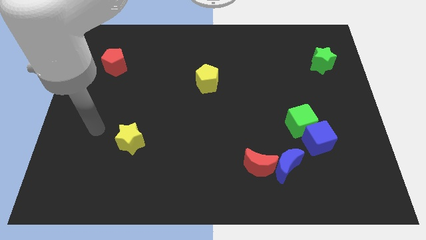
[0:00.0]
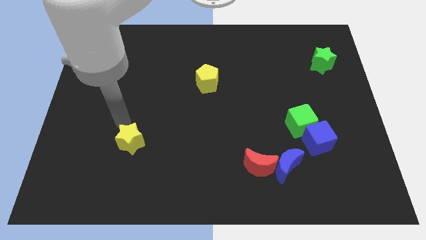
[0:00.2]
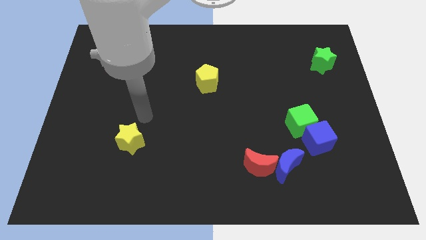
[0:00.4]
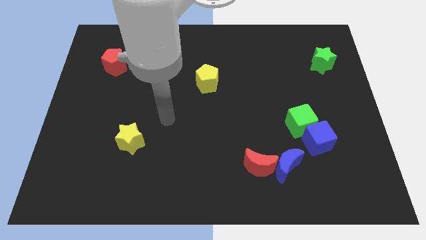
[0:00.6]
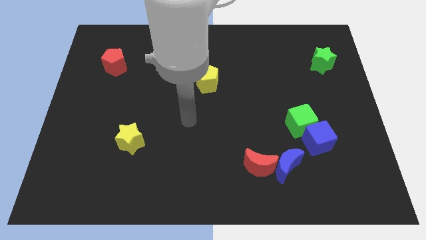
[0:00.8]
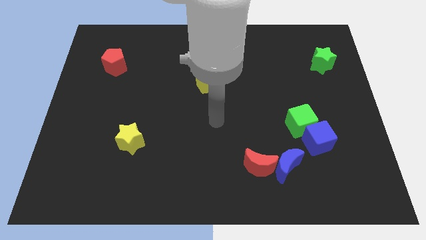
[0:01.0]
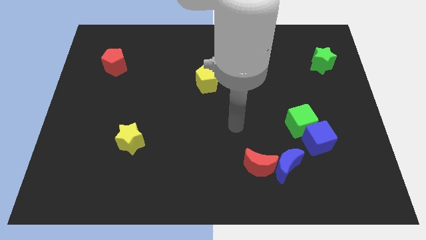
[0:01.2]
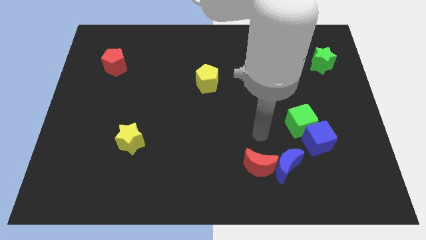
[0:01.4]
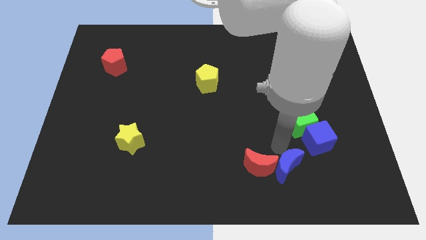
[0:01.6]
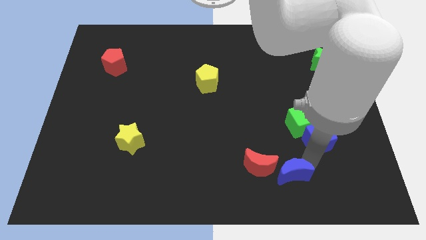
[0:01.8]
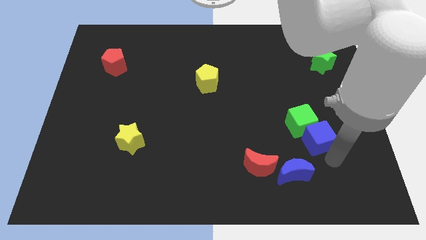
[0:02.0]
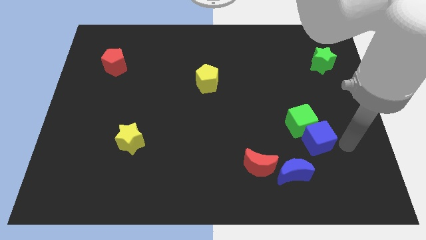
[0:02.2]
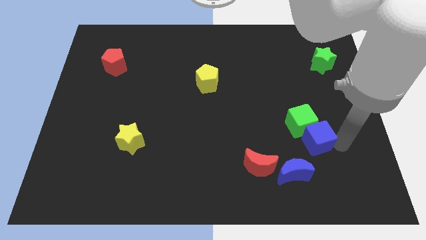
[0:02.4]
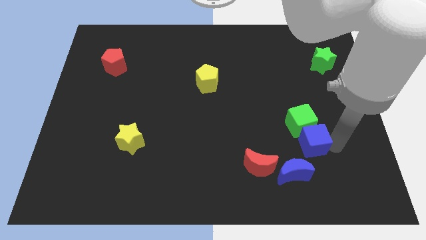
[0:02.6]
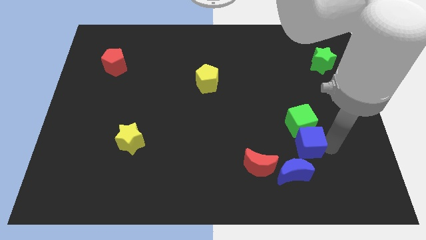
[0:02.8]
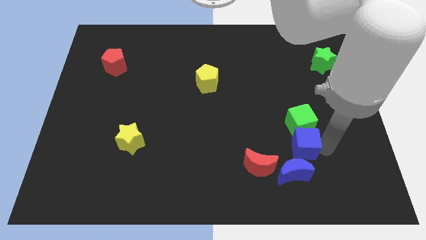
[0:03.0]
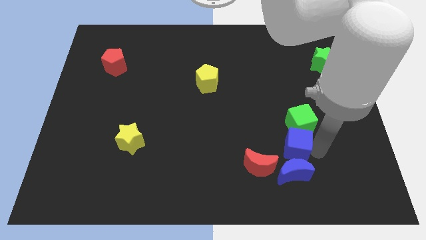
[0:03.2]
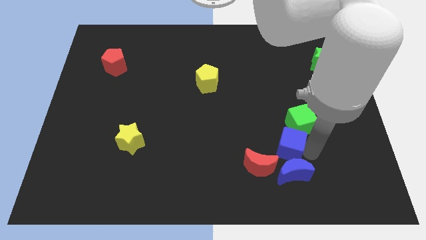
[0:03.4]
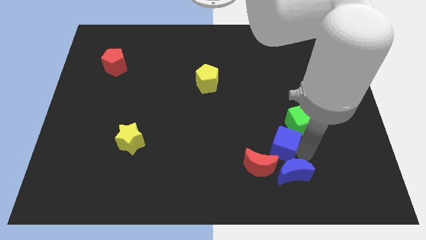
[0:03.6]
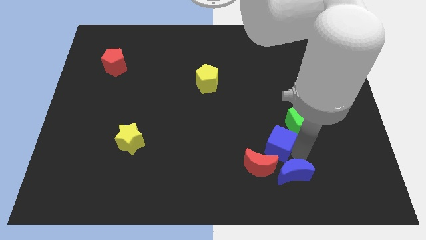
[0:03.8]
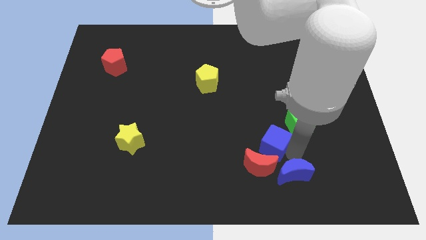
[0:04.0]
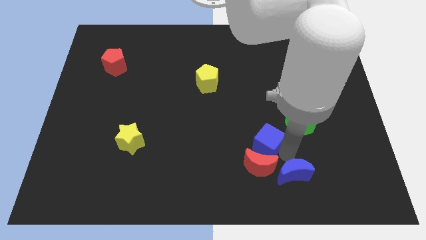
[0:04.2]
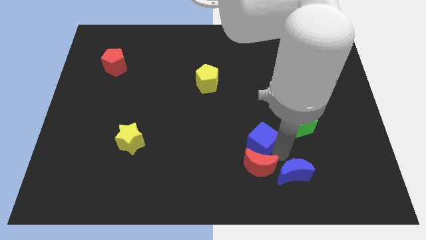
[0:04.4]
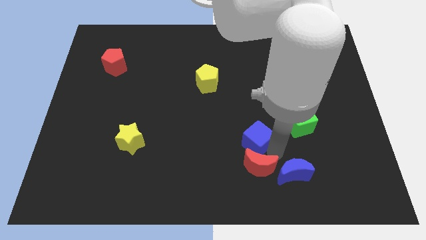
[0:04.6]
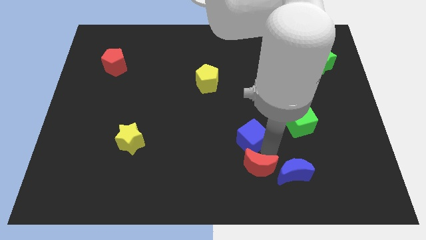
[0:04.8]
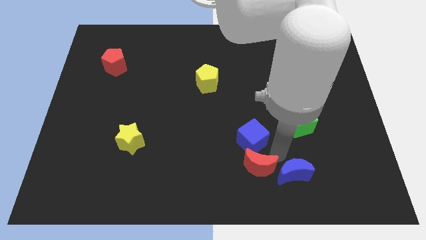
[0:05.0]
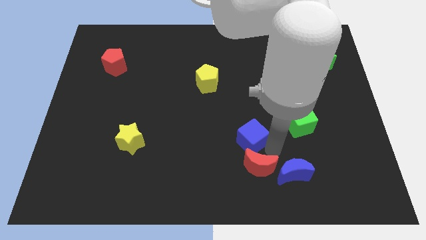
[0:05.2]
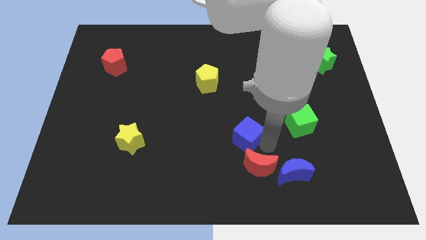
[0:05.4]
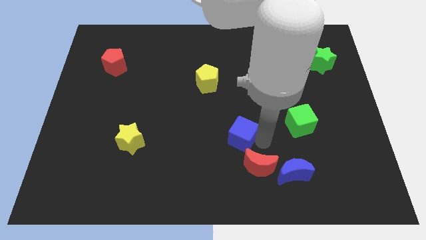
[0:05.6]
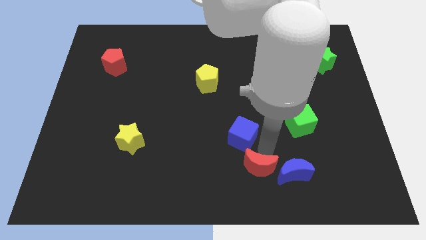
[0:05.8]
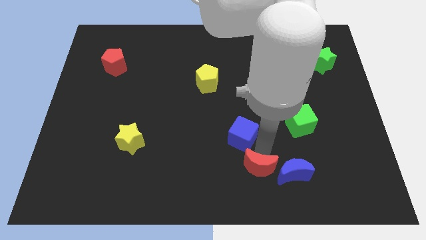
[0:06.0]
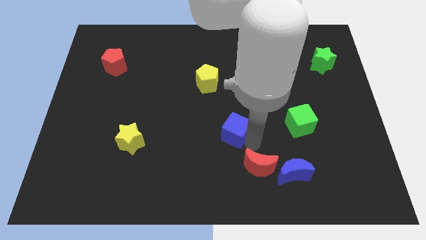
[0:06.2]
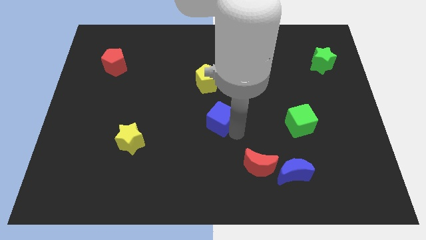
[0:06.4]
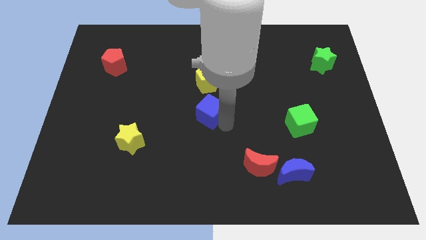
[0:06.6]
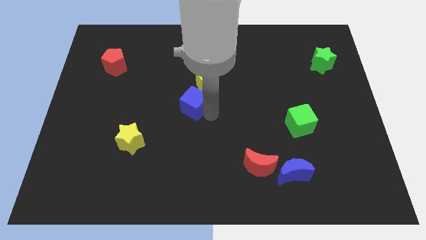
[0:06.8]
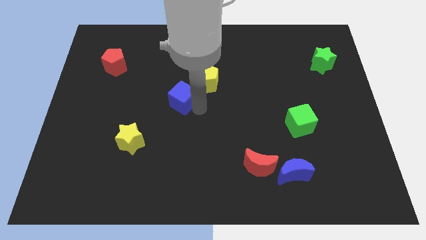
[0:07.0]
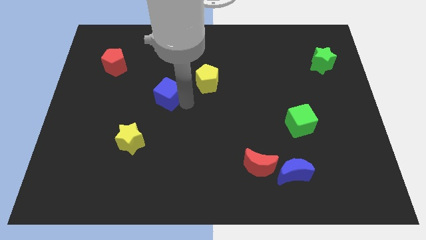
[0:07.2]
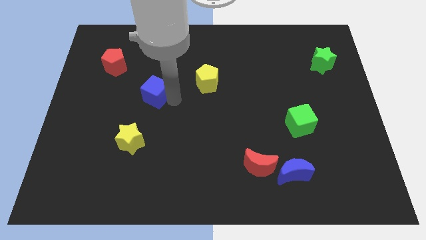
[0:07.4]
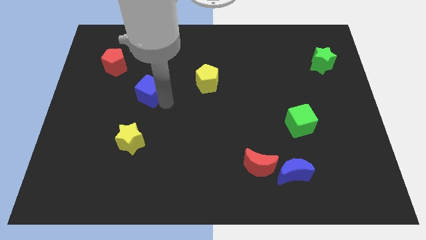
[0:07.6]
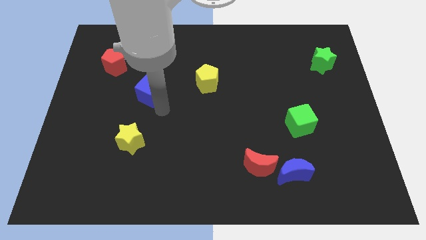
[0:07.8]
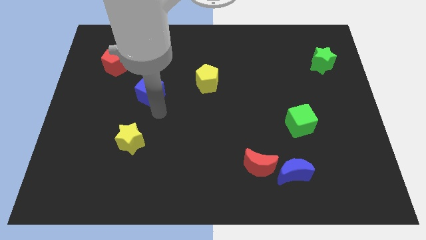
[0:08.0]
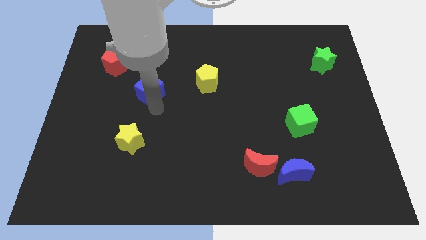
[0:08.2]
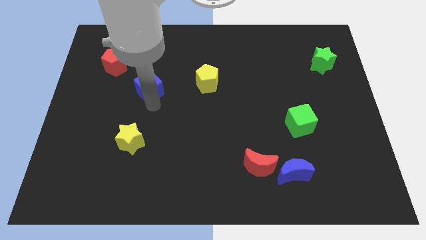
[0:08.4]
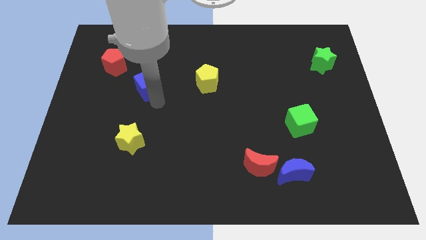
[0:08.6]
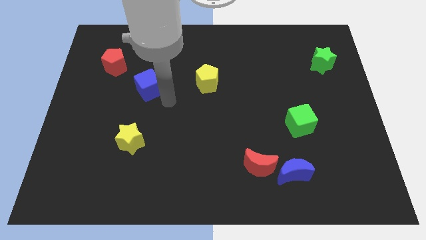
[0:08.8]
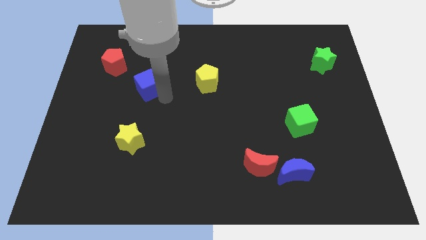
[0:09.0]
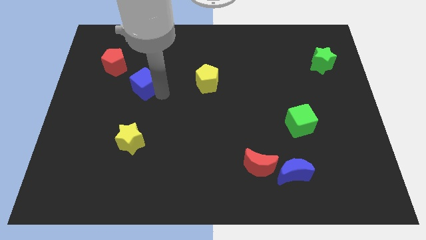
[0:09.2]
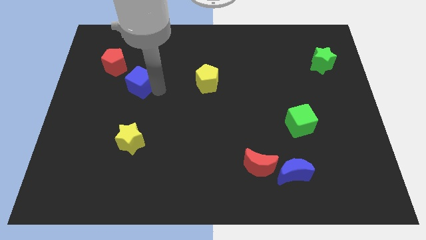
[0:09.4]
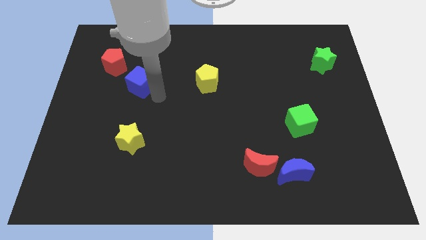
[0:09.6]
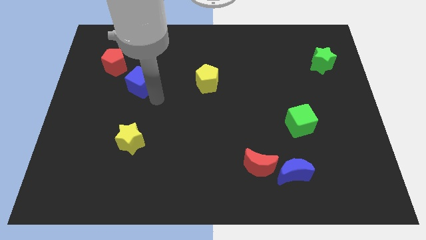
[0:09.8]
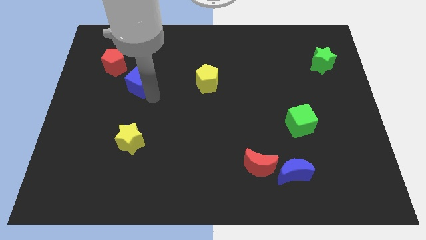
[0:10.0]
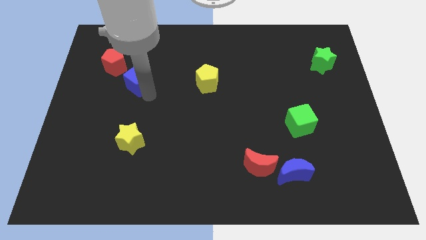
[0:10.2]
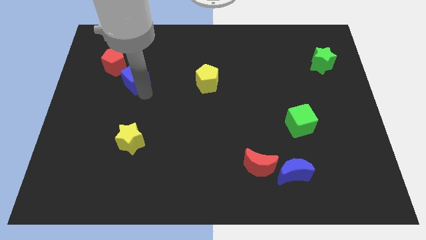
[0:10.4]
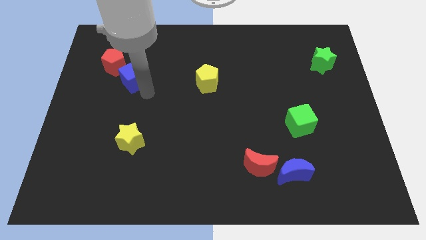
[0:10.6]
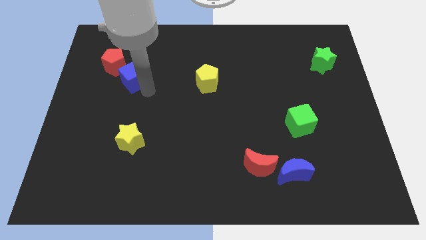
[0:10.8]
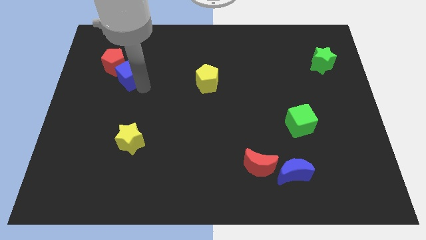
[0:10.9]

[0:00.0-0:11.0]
move the blue cube close to the red pentagon

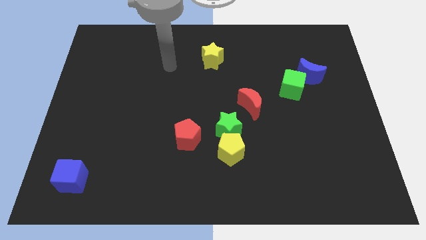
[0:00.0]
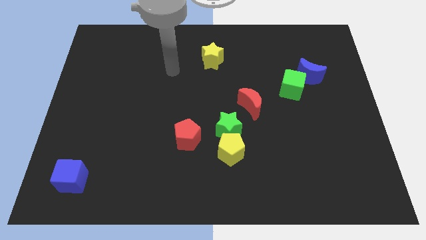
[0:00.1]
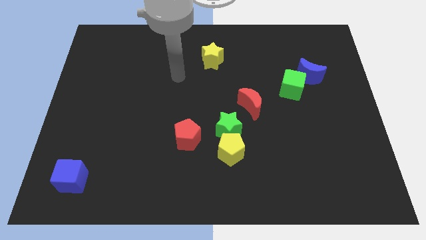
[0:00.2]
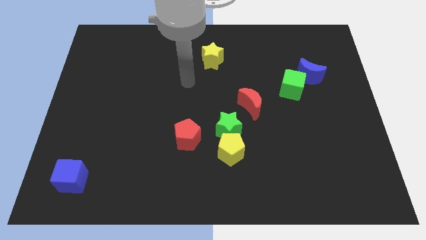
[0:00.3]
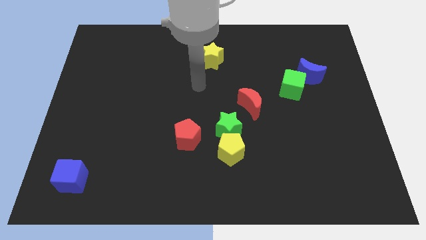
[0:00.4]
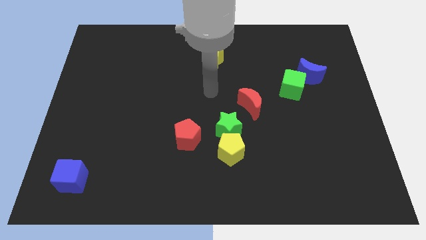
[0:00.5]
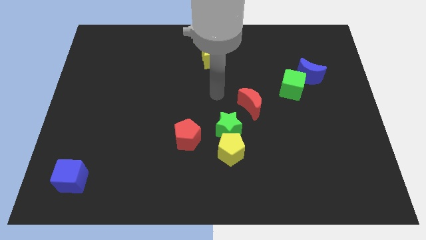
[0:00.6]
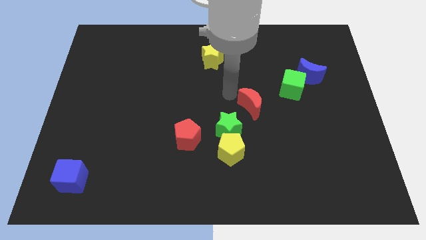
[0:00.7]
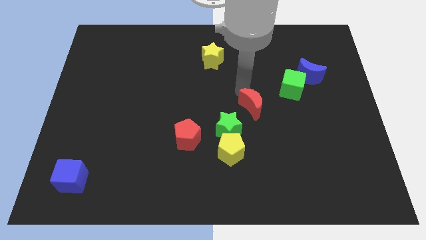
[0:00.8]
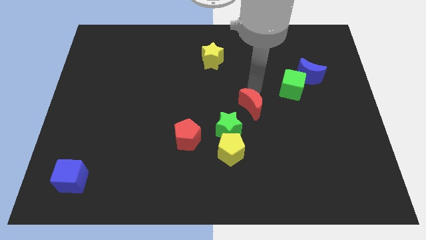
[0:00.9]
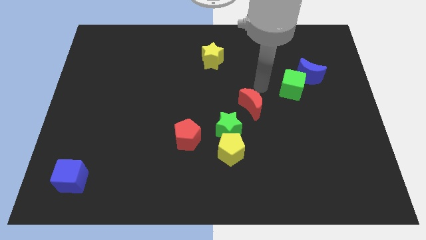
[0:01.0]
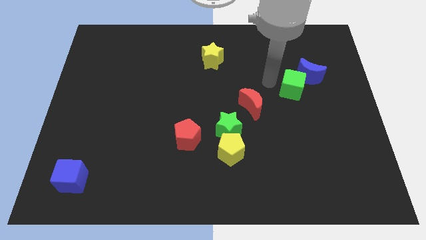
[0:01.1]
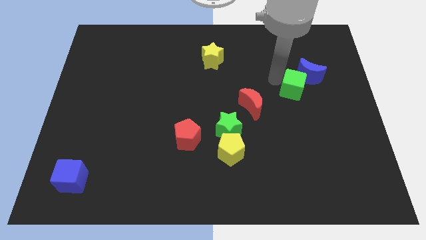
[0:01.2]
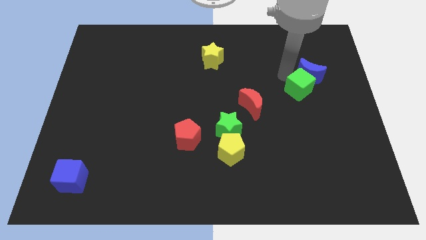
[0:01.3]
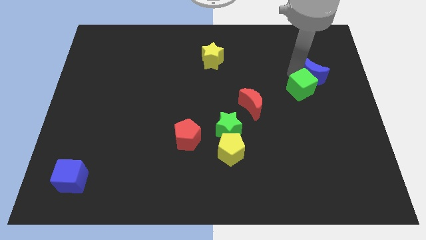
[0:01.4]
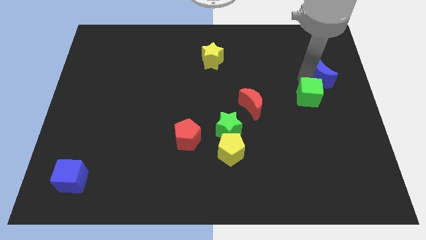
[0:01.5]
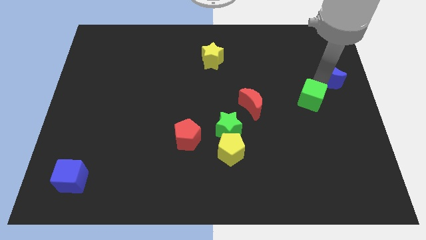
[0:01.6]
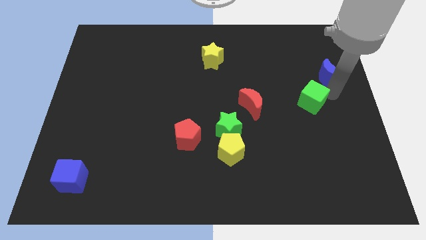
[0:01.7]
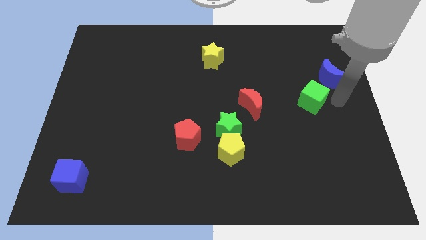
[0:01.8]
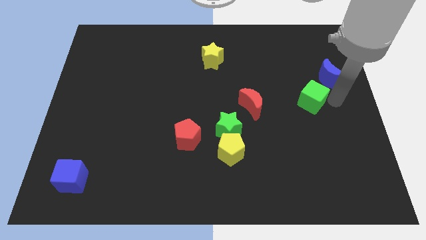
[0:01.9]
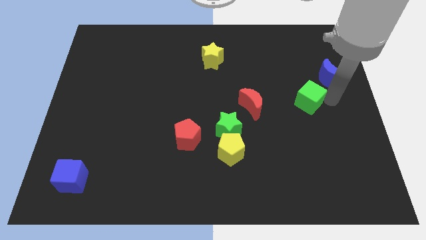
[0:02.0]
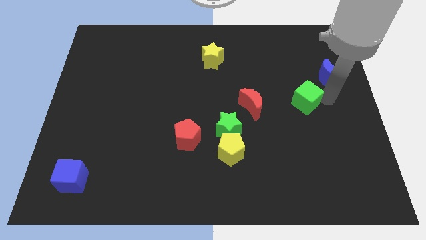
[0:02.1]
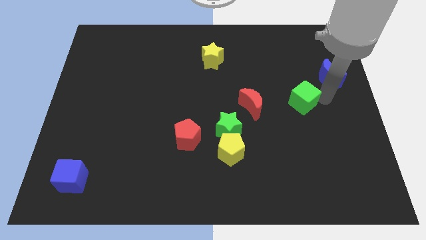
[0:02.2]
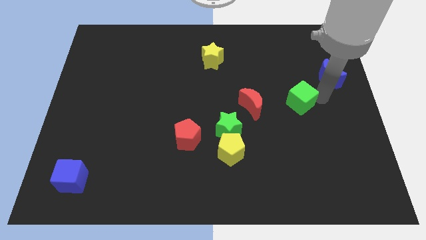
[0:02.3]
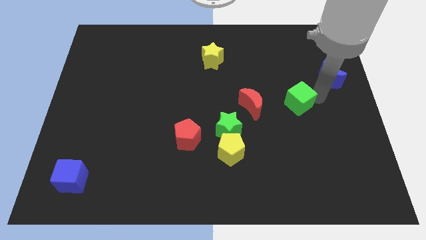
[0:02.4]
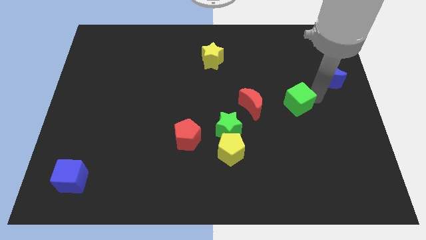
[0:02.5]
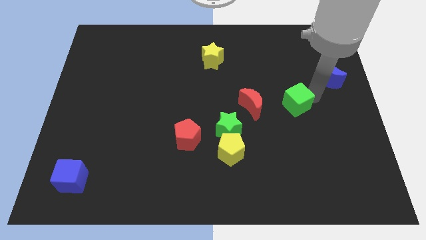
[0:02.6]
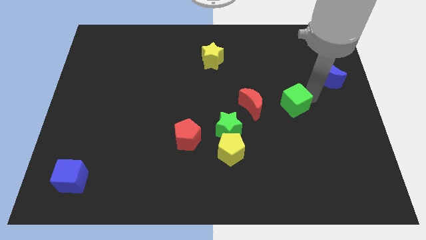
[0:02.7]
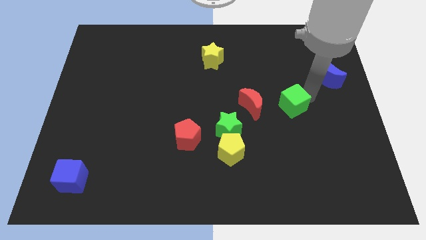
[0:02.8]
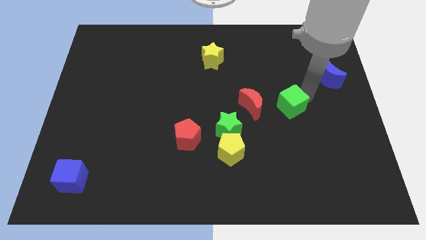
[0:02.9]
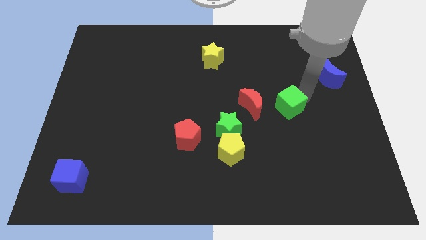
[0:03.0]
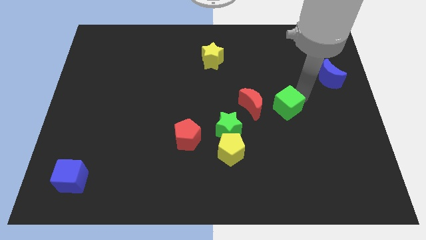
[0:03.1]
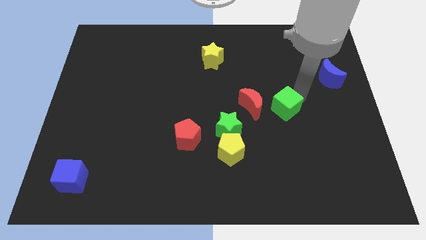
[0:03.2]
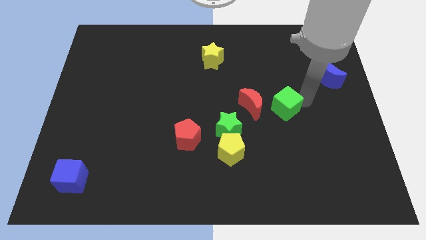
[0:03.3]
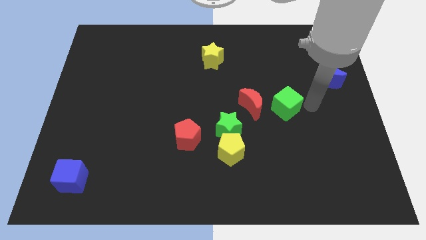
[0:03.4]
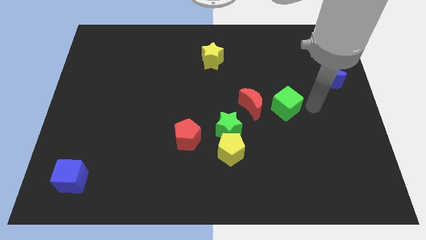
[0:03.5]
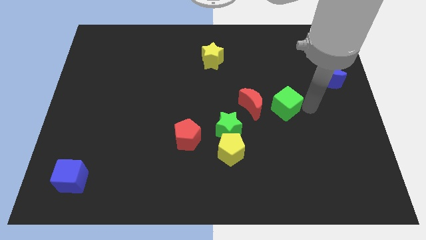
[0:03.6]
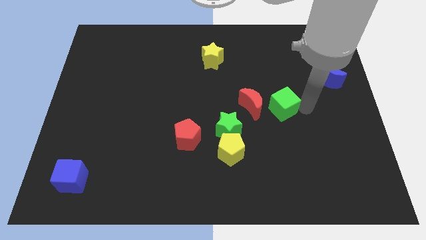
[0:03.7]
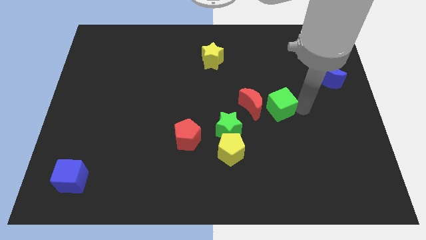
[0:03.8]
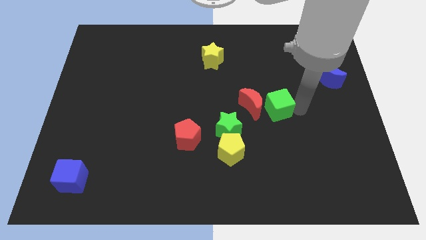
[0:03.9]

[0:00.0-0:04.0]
slide the green cube towards the red moon
